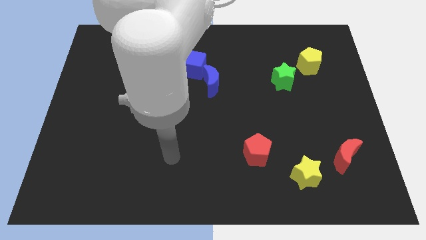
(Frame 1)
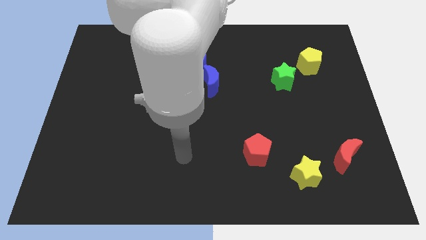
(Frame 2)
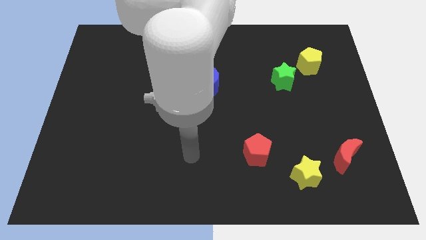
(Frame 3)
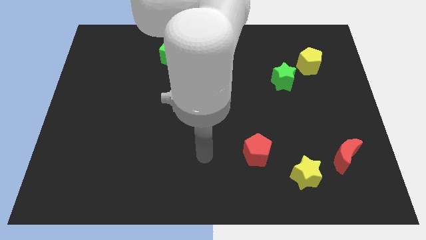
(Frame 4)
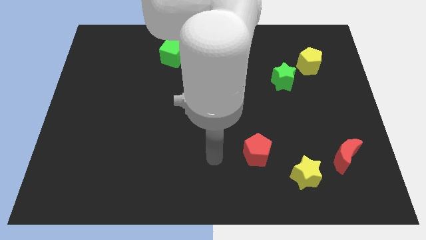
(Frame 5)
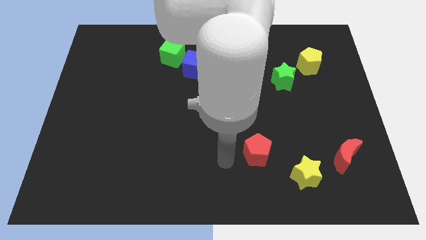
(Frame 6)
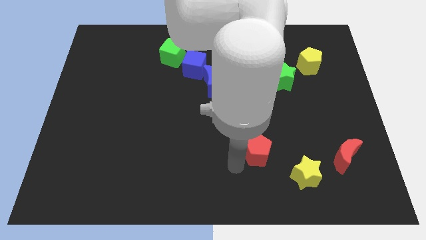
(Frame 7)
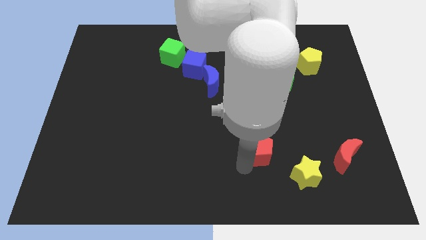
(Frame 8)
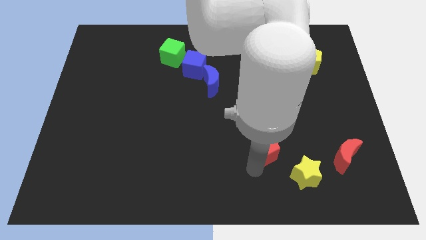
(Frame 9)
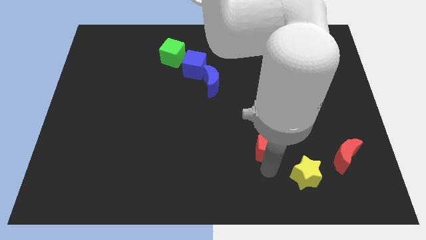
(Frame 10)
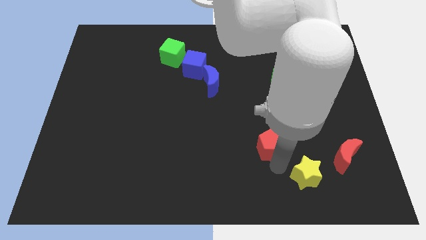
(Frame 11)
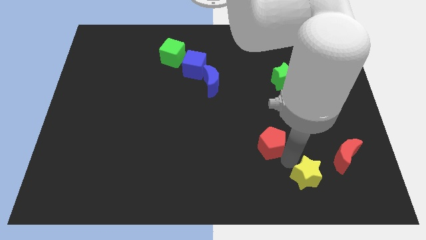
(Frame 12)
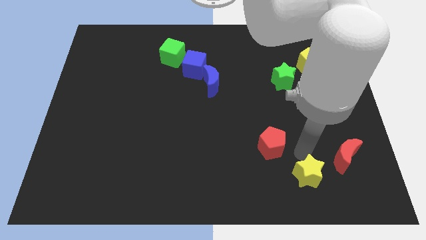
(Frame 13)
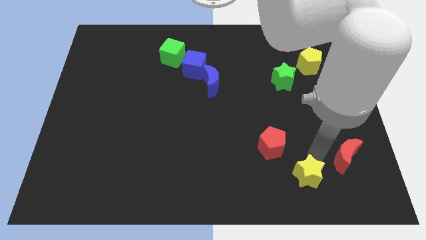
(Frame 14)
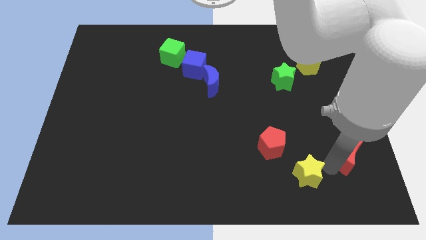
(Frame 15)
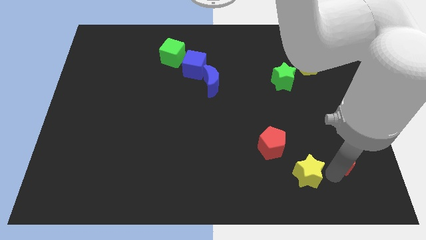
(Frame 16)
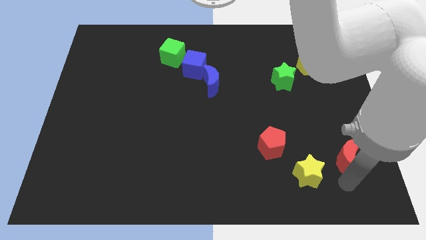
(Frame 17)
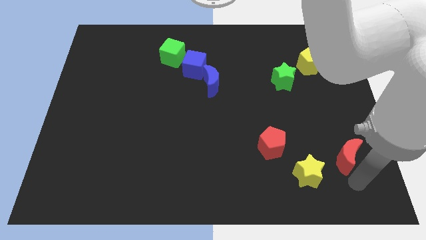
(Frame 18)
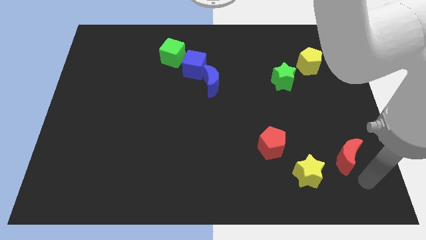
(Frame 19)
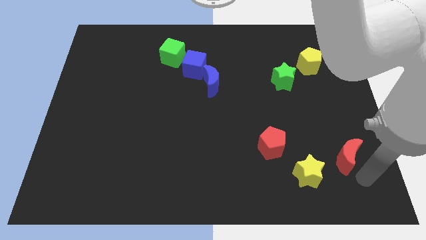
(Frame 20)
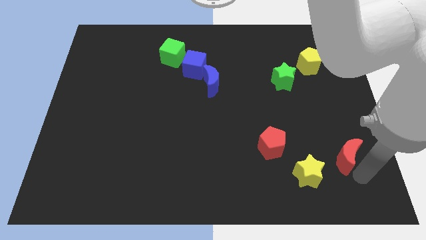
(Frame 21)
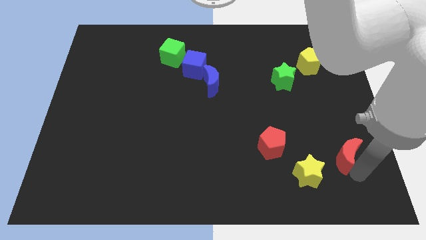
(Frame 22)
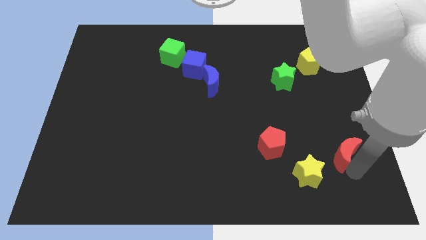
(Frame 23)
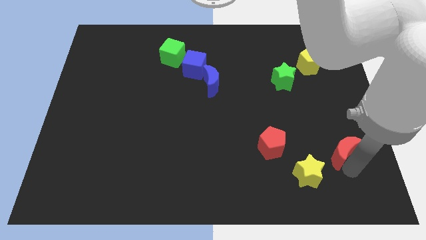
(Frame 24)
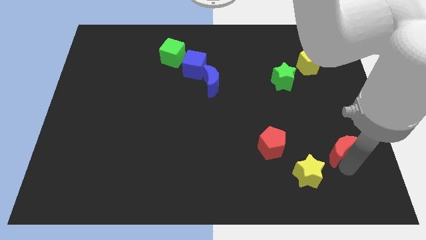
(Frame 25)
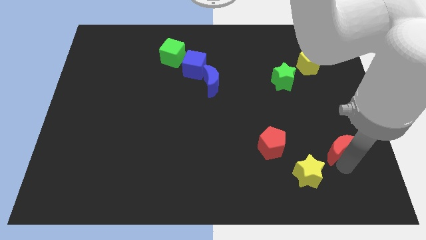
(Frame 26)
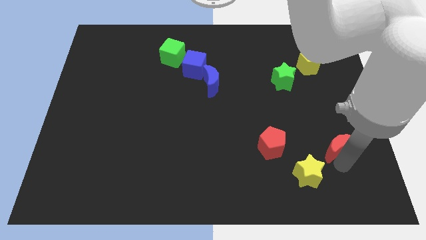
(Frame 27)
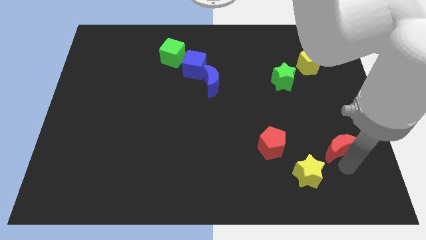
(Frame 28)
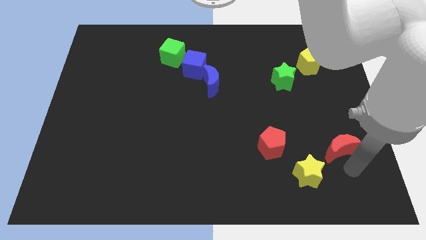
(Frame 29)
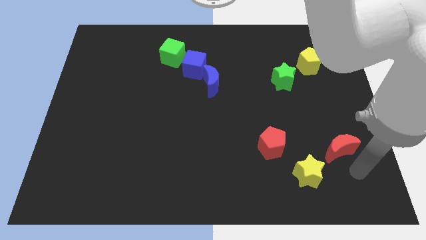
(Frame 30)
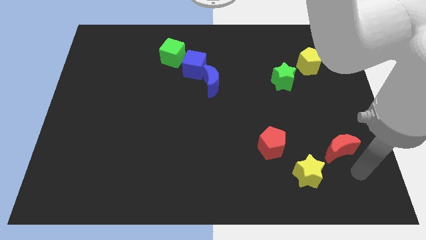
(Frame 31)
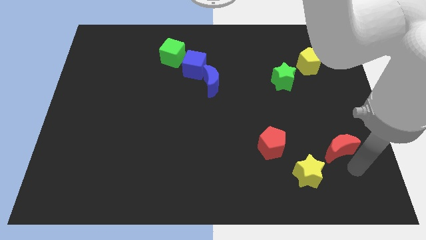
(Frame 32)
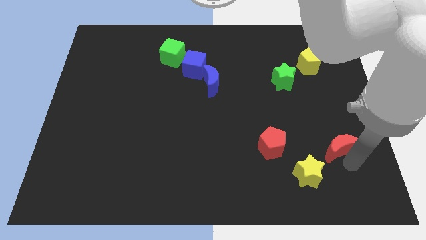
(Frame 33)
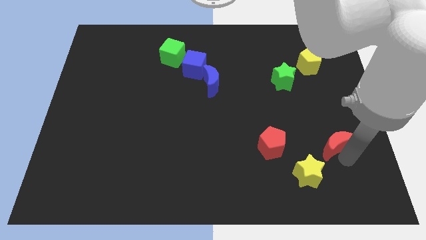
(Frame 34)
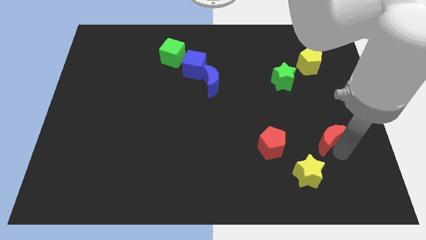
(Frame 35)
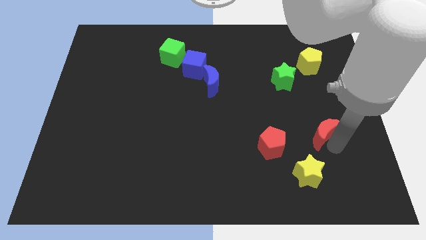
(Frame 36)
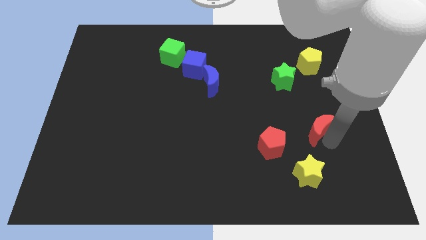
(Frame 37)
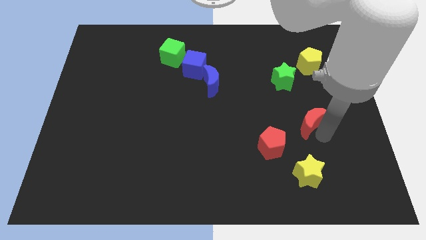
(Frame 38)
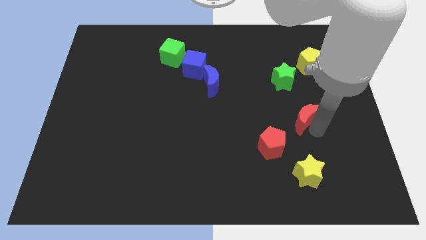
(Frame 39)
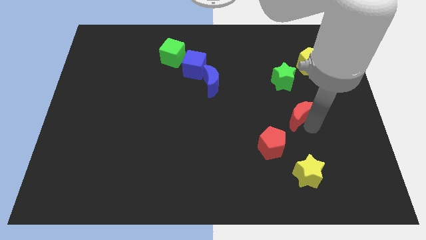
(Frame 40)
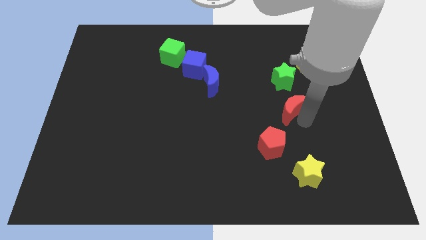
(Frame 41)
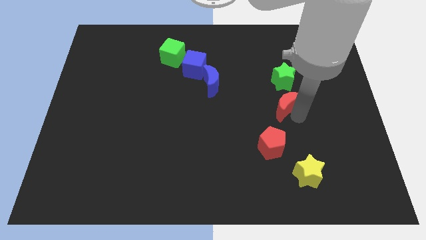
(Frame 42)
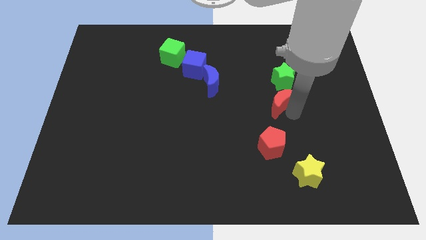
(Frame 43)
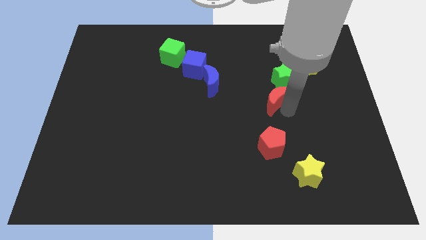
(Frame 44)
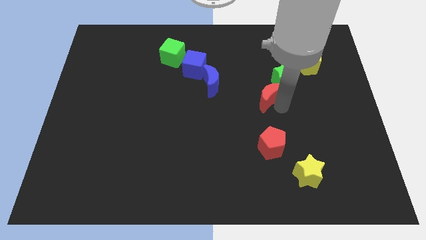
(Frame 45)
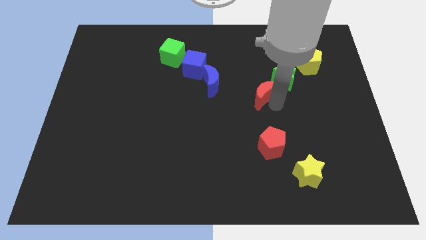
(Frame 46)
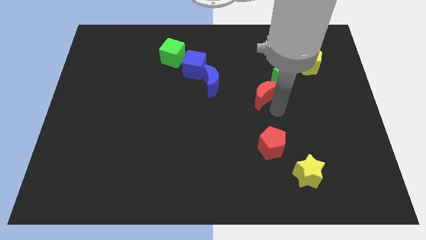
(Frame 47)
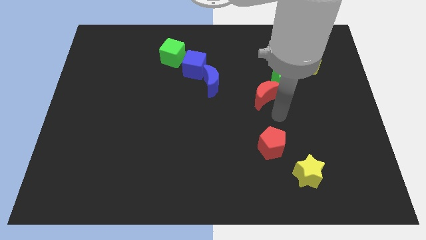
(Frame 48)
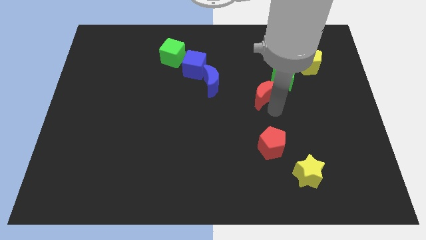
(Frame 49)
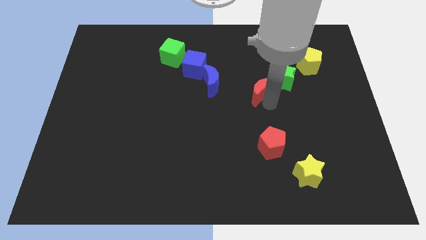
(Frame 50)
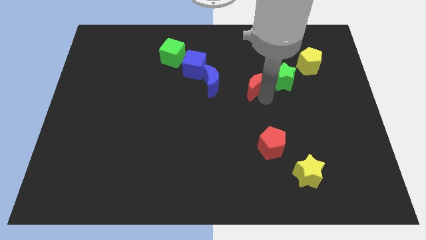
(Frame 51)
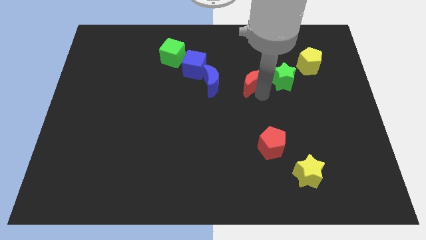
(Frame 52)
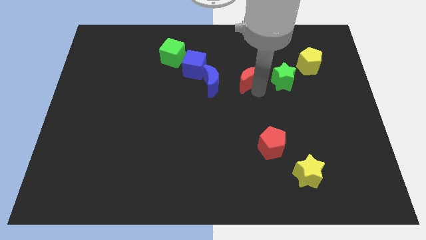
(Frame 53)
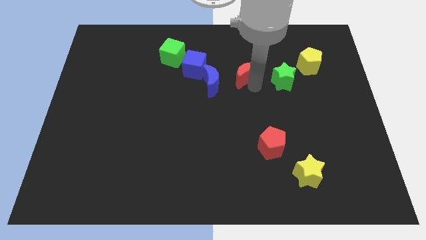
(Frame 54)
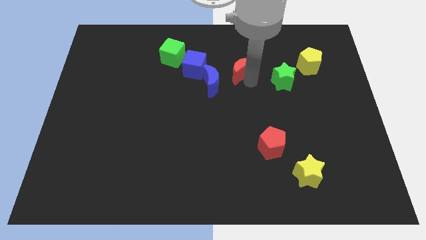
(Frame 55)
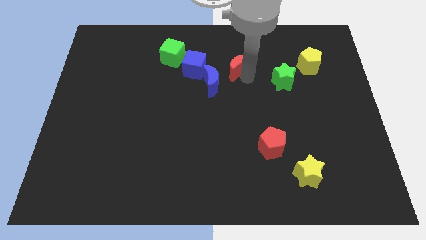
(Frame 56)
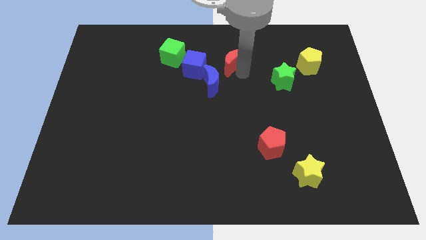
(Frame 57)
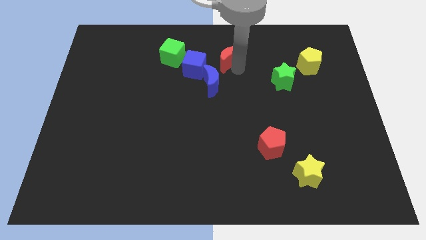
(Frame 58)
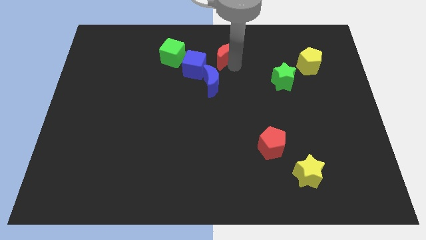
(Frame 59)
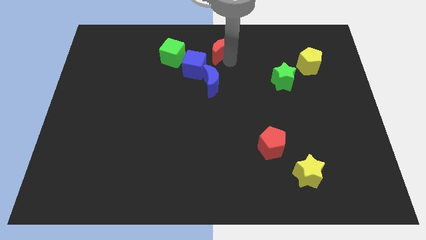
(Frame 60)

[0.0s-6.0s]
push the red moon to the top side

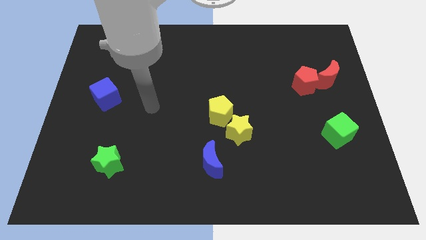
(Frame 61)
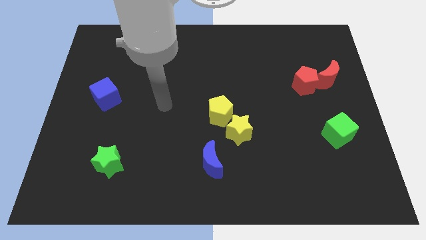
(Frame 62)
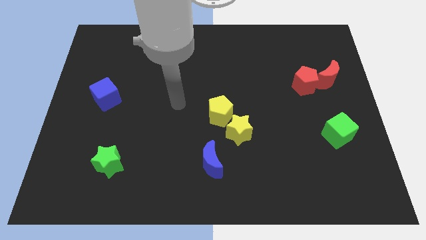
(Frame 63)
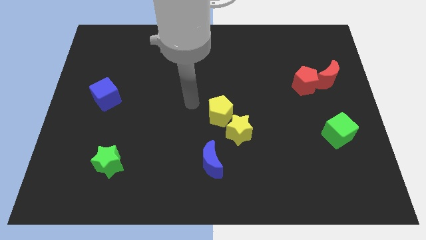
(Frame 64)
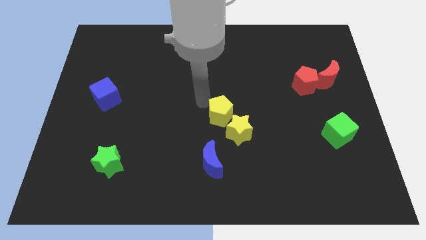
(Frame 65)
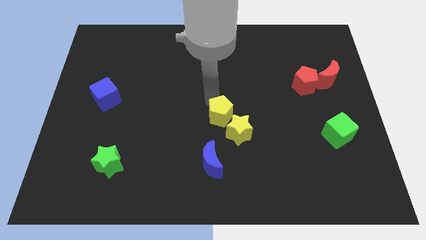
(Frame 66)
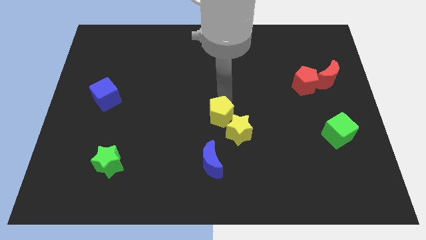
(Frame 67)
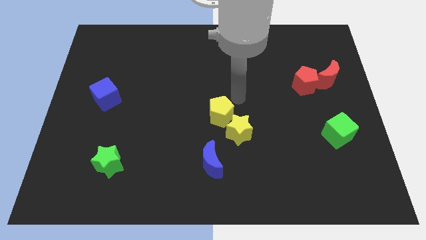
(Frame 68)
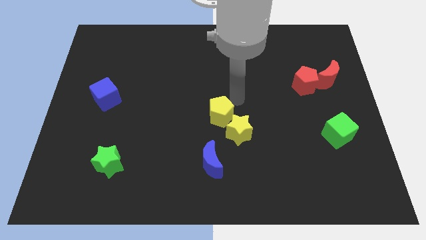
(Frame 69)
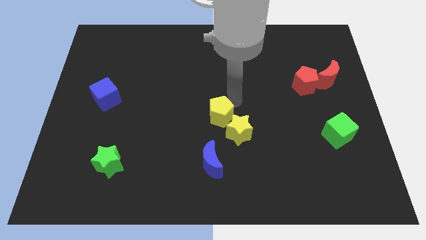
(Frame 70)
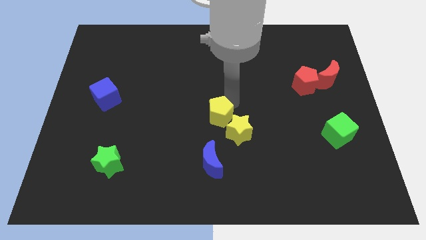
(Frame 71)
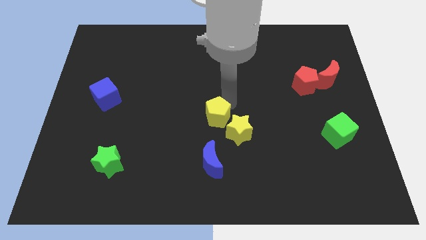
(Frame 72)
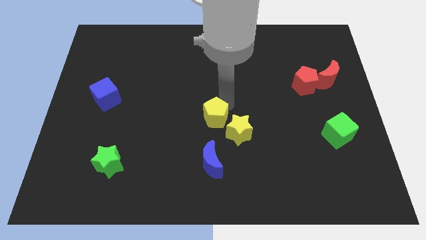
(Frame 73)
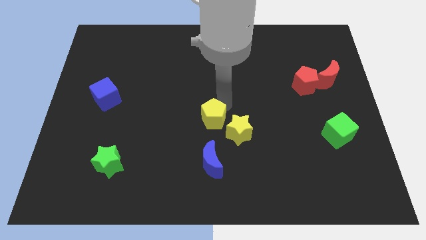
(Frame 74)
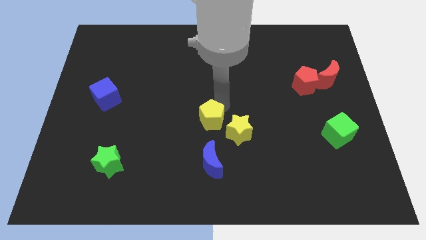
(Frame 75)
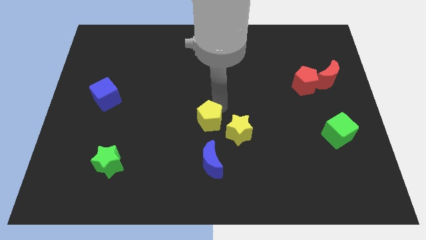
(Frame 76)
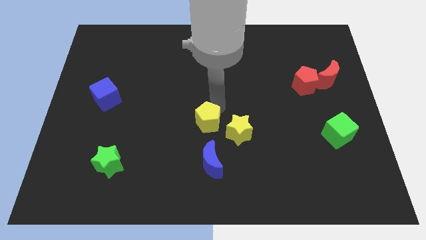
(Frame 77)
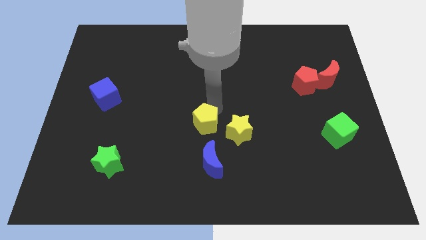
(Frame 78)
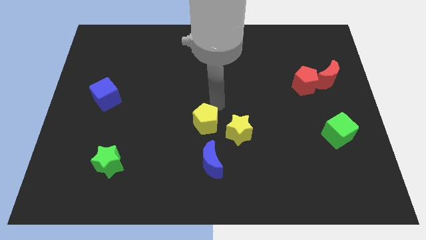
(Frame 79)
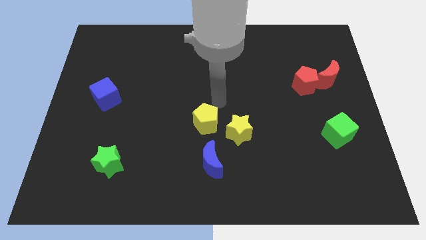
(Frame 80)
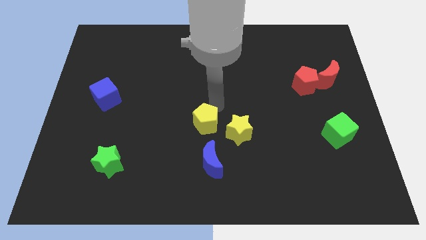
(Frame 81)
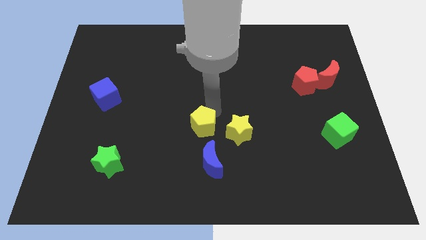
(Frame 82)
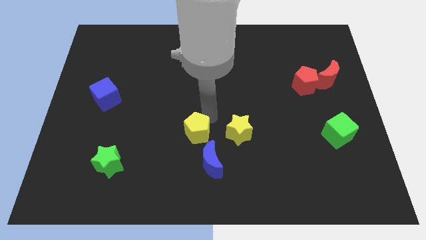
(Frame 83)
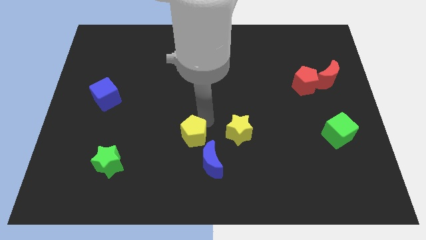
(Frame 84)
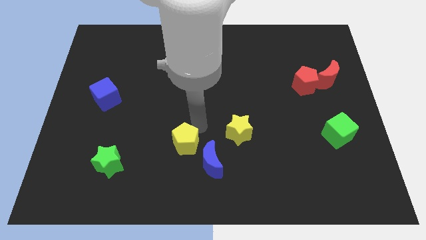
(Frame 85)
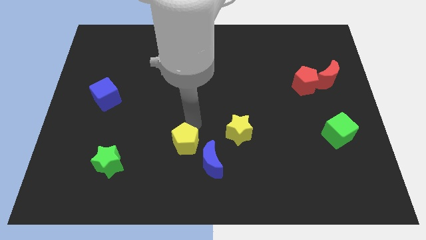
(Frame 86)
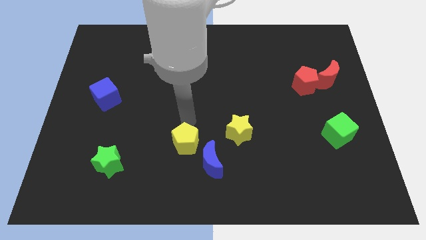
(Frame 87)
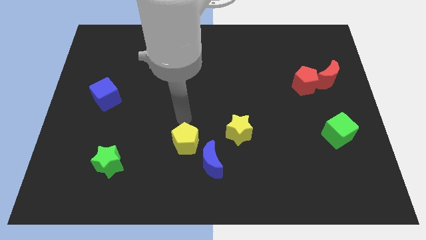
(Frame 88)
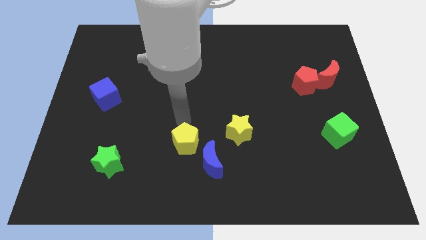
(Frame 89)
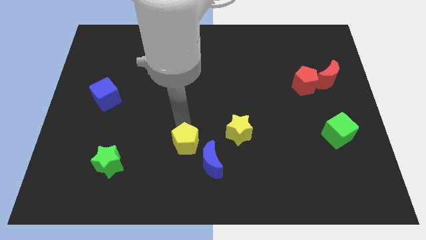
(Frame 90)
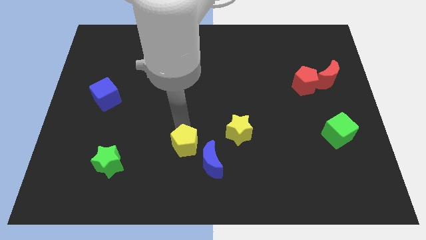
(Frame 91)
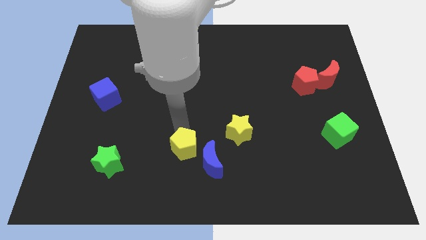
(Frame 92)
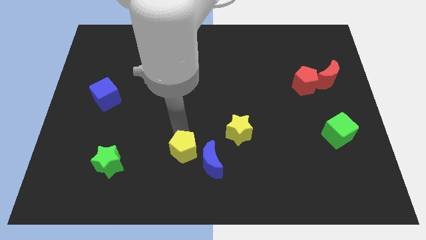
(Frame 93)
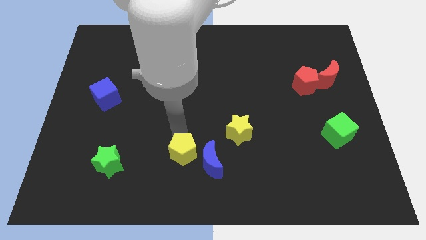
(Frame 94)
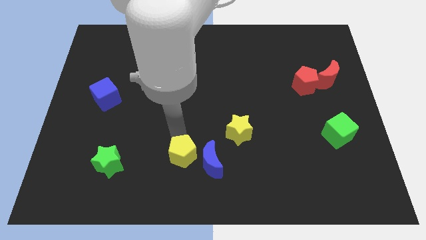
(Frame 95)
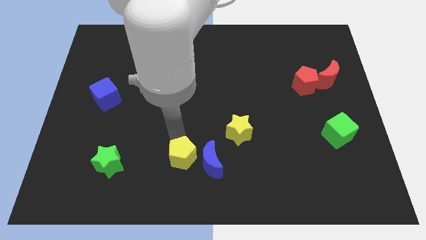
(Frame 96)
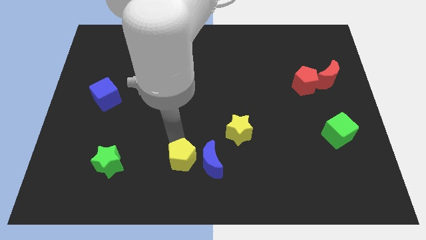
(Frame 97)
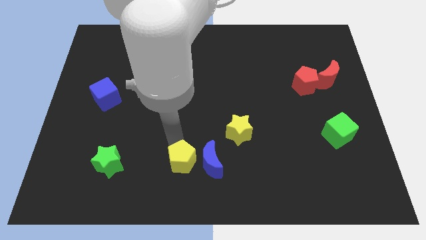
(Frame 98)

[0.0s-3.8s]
move the yellow pentagon to the bottom side
